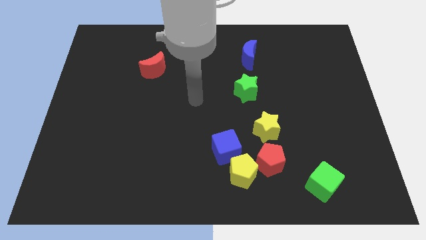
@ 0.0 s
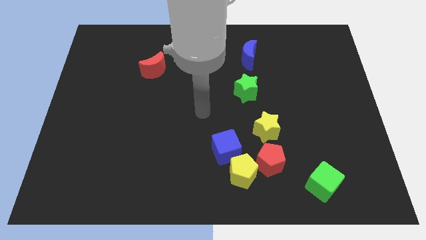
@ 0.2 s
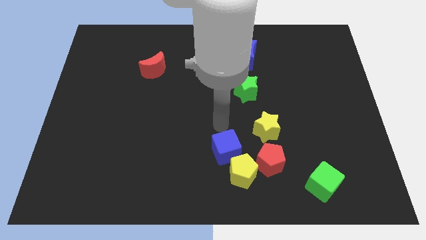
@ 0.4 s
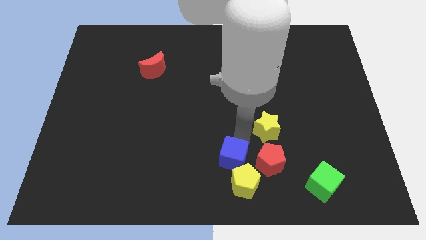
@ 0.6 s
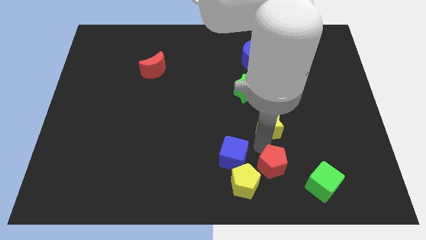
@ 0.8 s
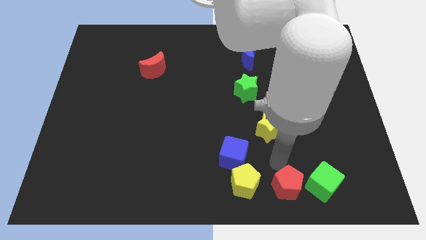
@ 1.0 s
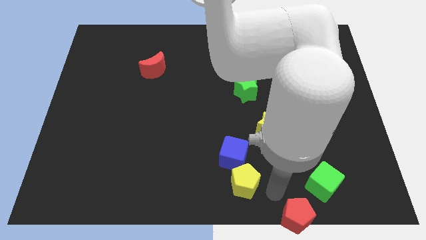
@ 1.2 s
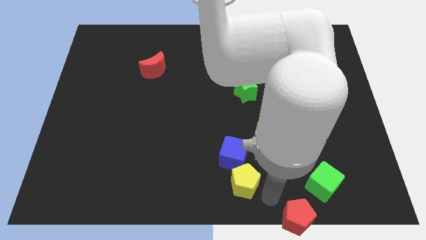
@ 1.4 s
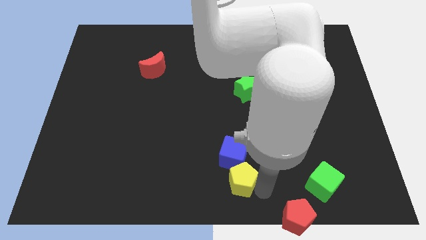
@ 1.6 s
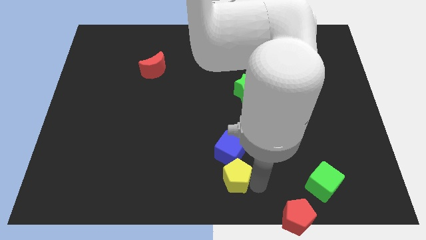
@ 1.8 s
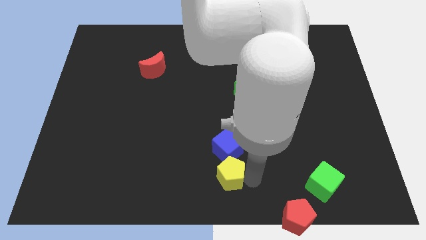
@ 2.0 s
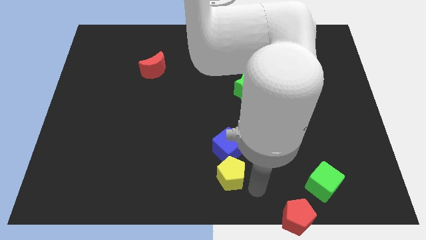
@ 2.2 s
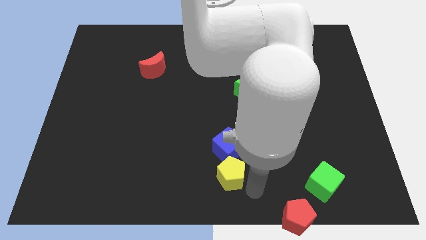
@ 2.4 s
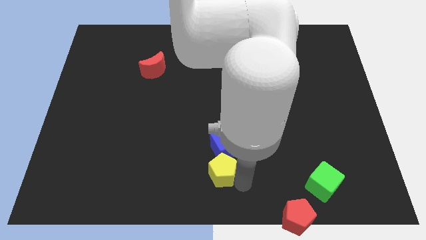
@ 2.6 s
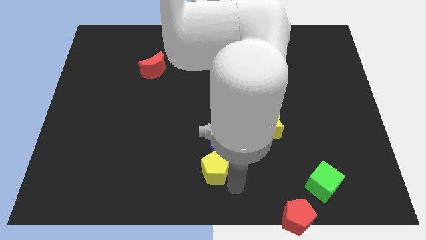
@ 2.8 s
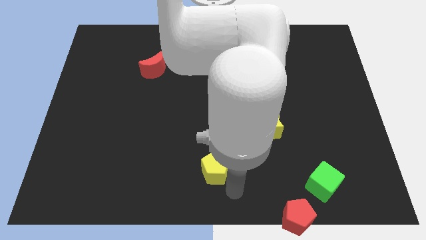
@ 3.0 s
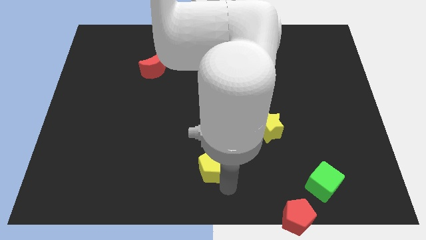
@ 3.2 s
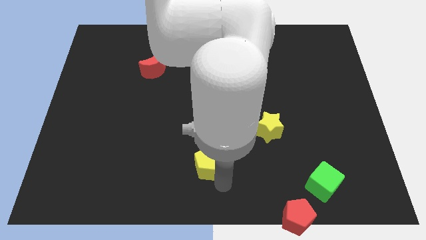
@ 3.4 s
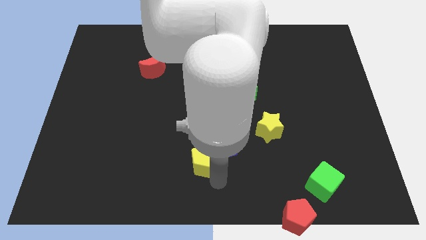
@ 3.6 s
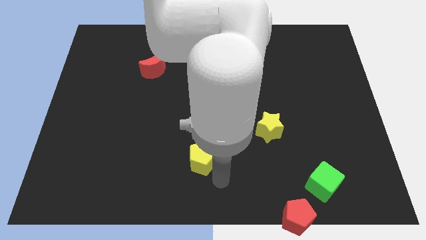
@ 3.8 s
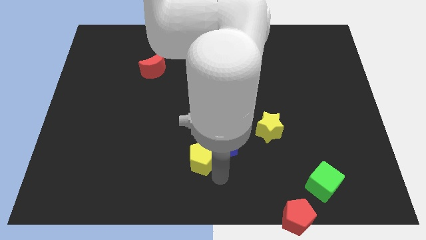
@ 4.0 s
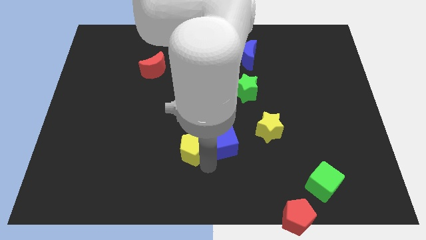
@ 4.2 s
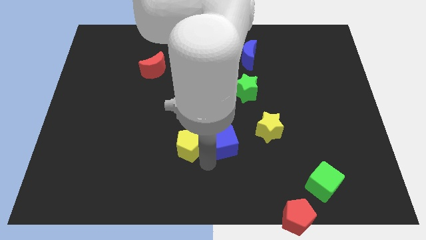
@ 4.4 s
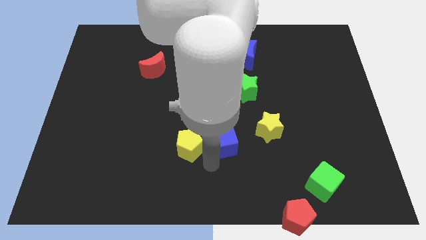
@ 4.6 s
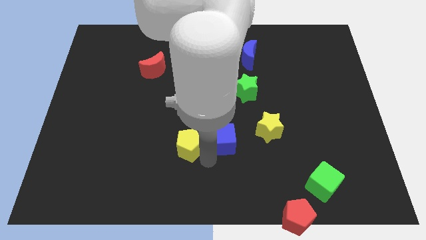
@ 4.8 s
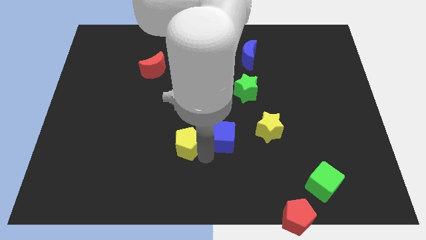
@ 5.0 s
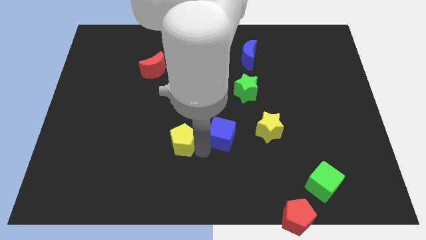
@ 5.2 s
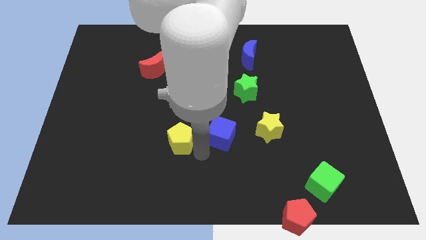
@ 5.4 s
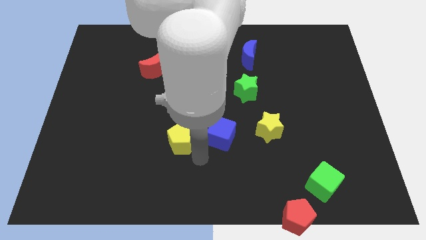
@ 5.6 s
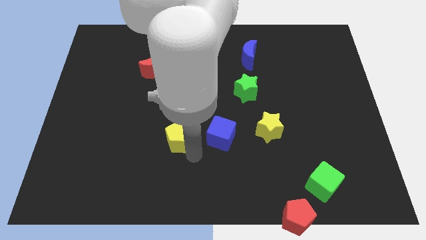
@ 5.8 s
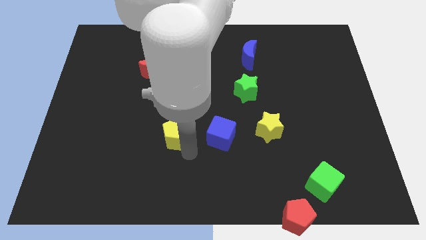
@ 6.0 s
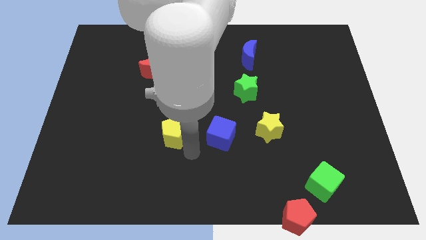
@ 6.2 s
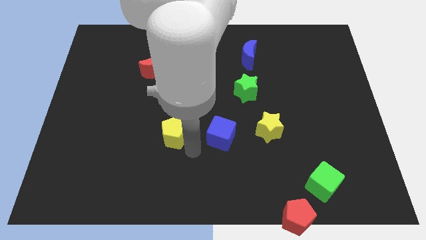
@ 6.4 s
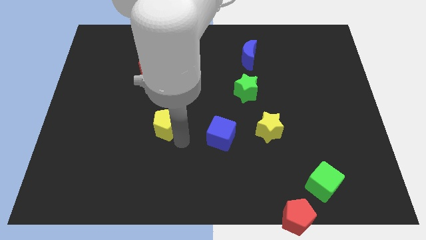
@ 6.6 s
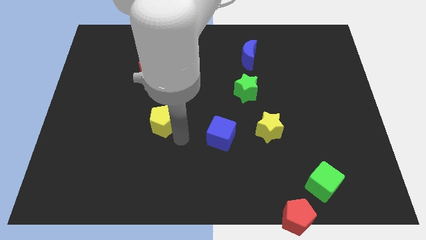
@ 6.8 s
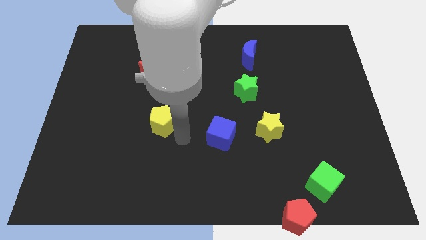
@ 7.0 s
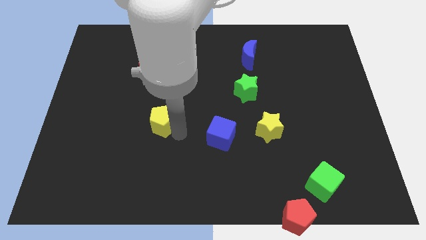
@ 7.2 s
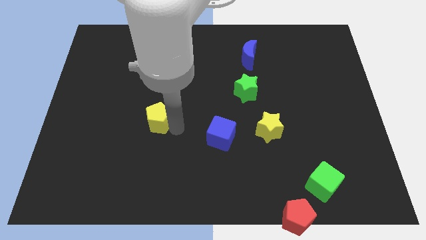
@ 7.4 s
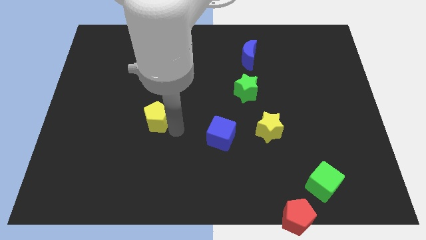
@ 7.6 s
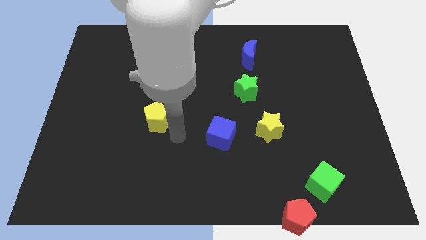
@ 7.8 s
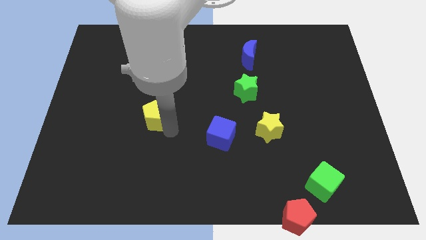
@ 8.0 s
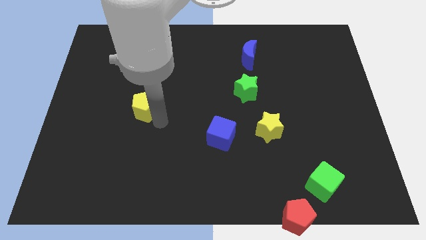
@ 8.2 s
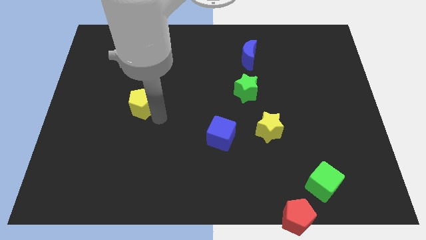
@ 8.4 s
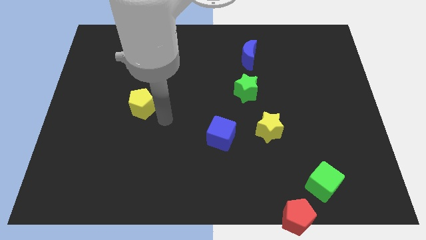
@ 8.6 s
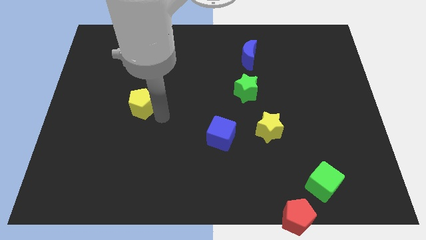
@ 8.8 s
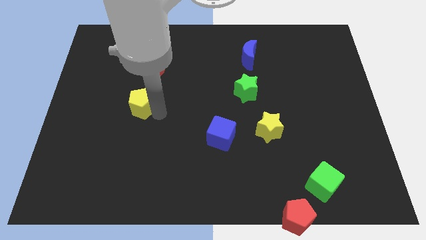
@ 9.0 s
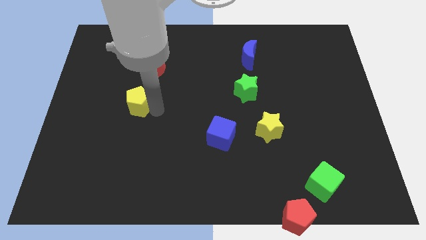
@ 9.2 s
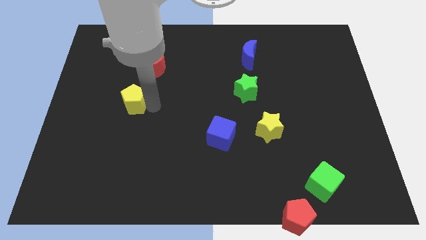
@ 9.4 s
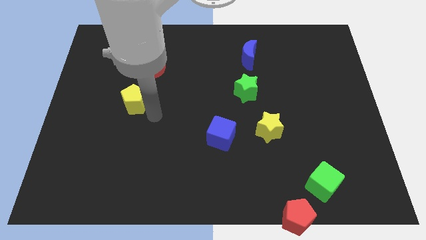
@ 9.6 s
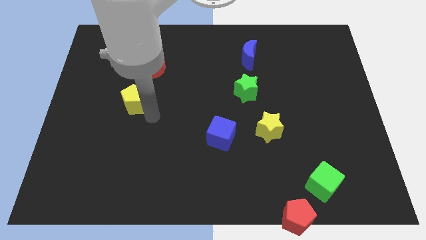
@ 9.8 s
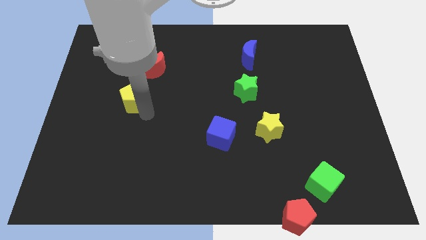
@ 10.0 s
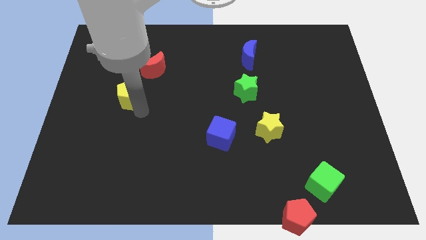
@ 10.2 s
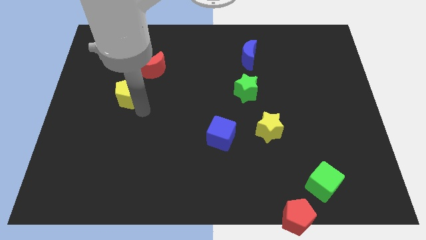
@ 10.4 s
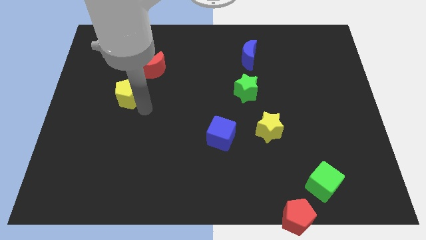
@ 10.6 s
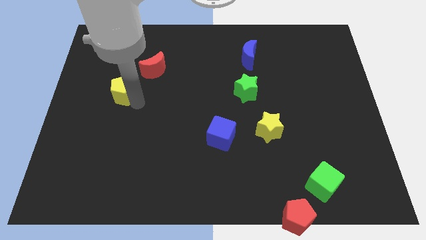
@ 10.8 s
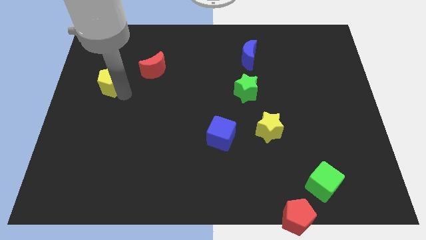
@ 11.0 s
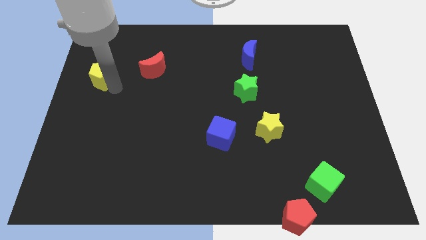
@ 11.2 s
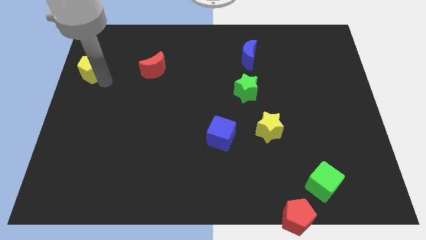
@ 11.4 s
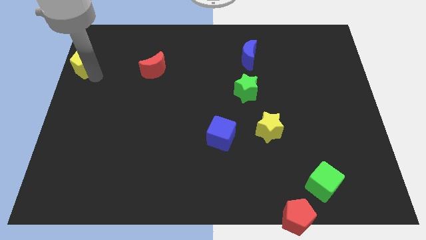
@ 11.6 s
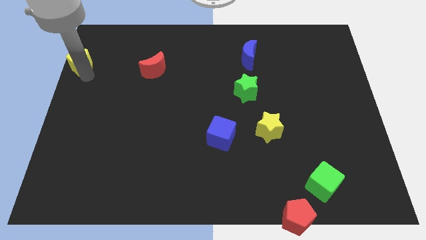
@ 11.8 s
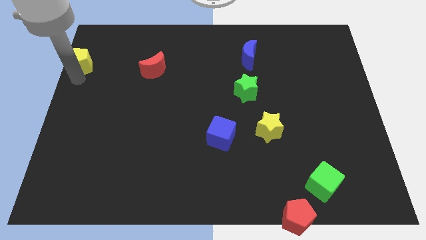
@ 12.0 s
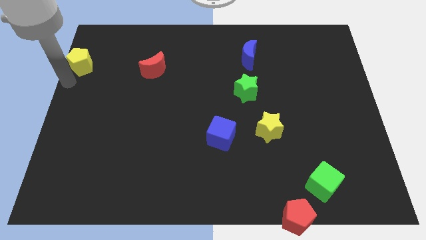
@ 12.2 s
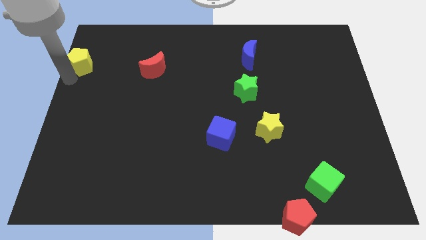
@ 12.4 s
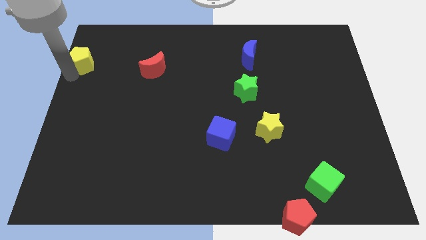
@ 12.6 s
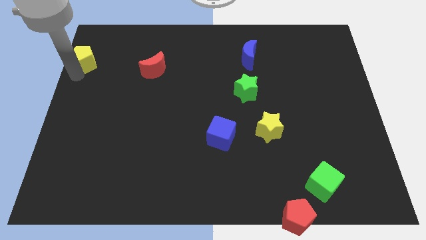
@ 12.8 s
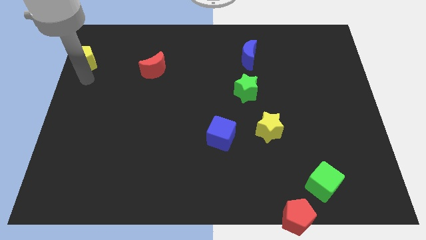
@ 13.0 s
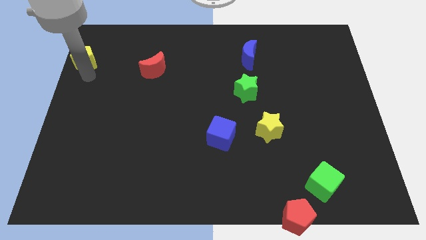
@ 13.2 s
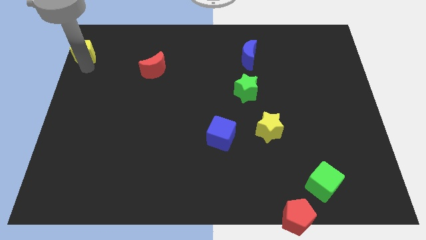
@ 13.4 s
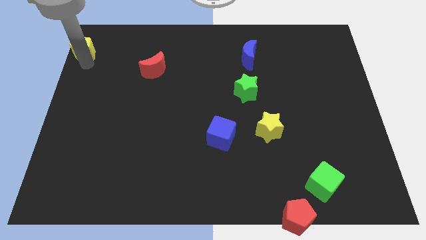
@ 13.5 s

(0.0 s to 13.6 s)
move the yellow pentagon to the top left corner
